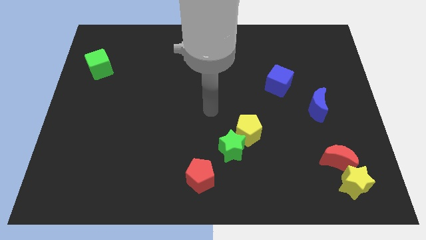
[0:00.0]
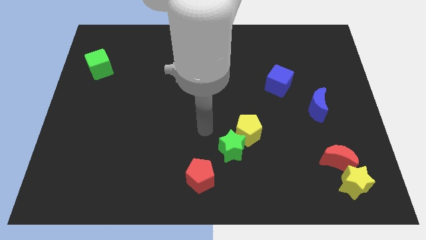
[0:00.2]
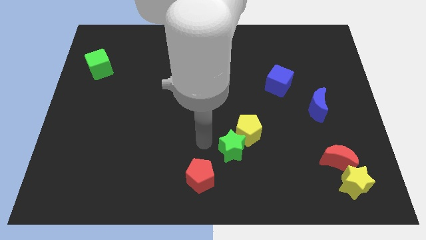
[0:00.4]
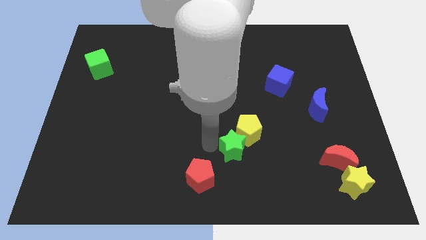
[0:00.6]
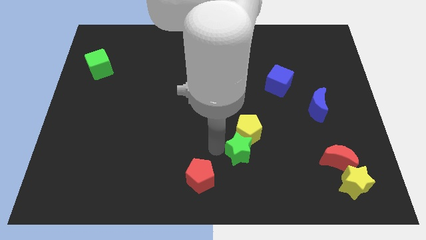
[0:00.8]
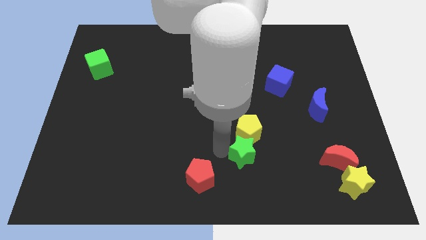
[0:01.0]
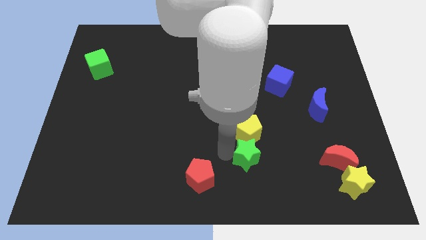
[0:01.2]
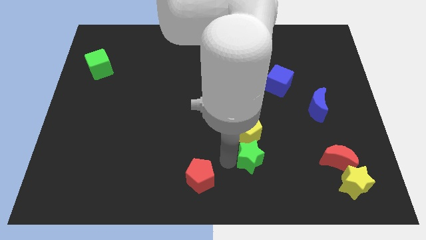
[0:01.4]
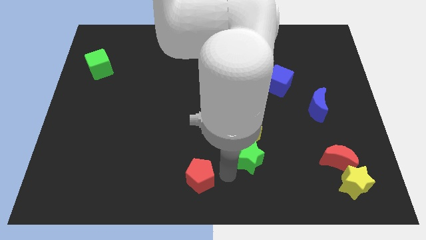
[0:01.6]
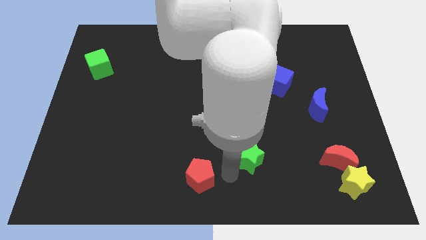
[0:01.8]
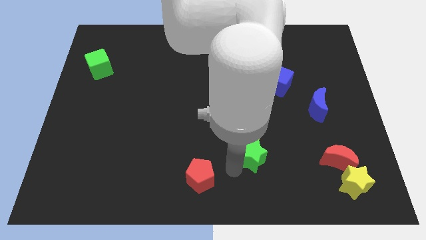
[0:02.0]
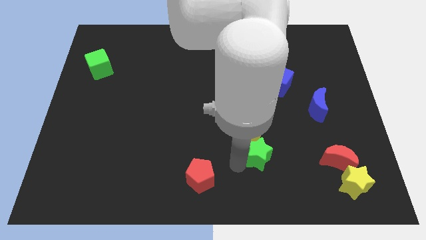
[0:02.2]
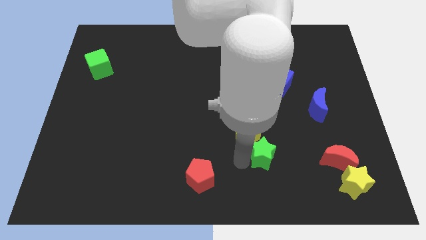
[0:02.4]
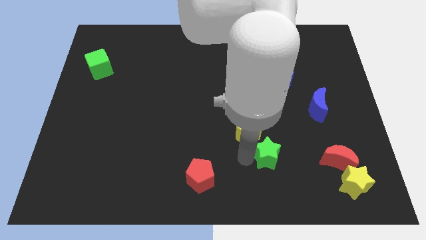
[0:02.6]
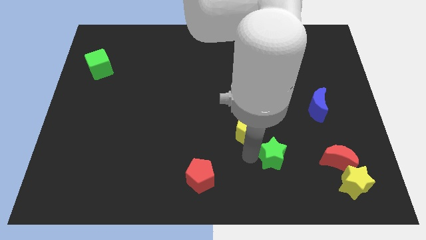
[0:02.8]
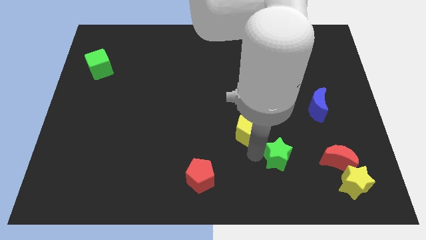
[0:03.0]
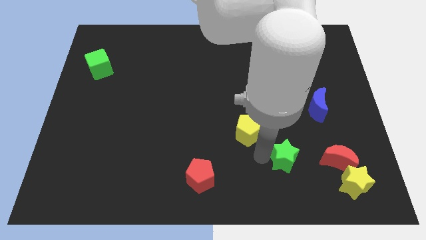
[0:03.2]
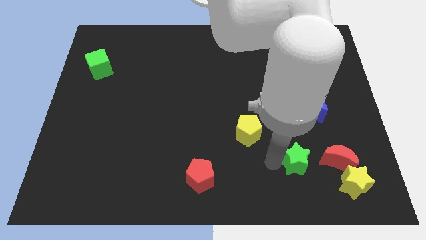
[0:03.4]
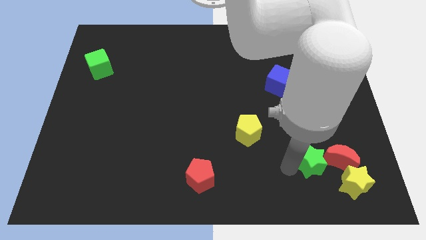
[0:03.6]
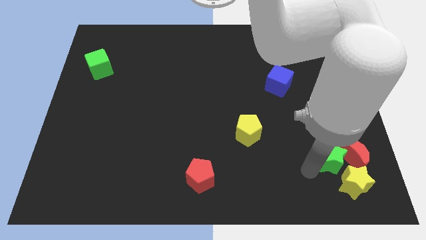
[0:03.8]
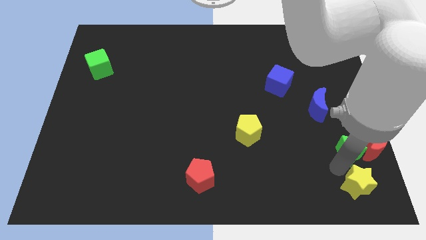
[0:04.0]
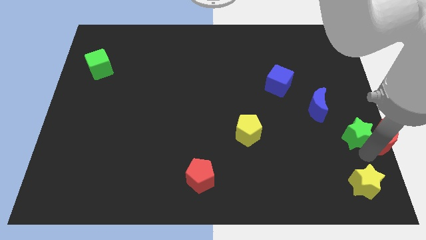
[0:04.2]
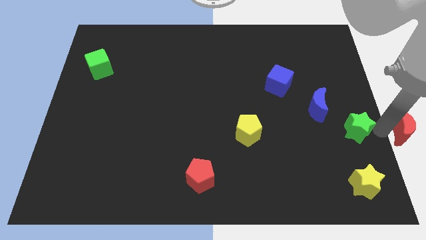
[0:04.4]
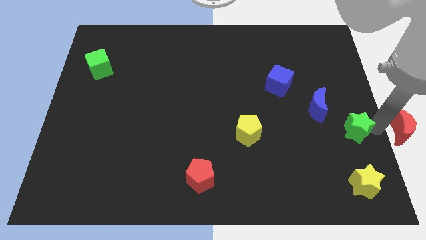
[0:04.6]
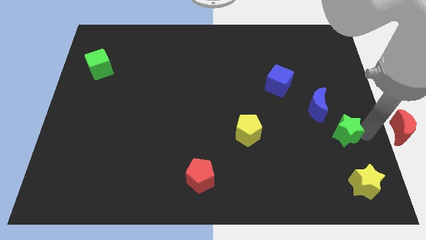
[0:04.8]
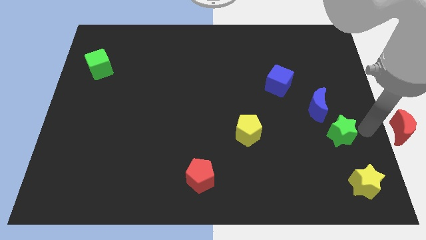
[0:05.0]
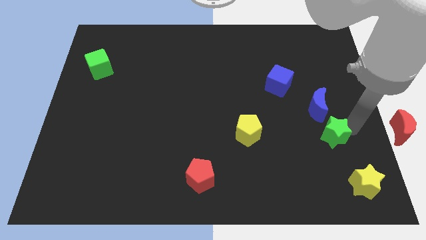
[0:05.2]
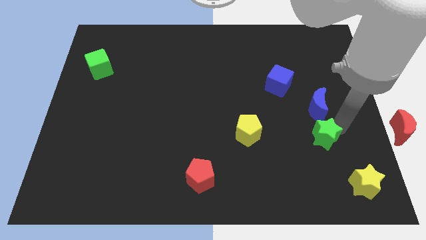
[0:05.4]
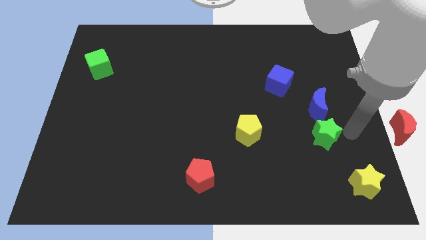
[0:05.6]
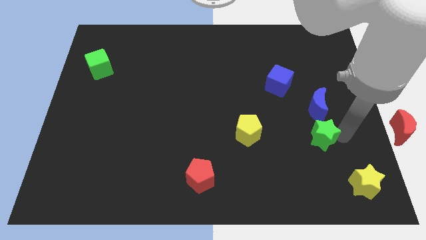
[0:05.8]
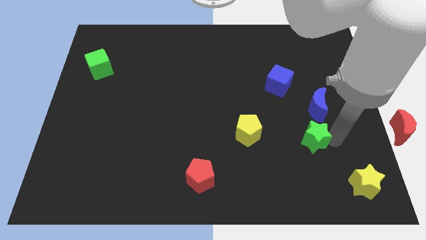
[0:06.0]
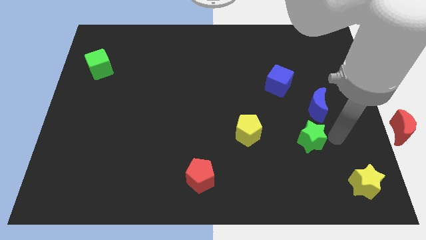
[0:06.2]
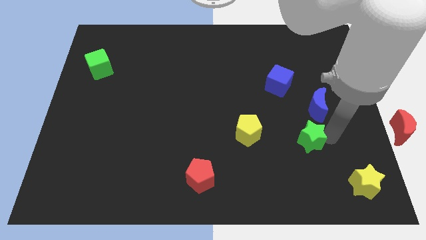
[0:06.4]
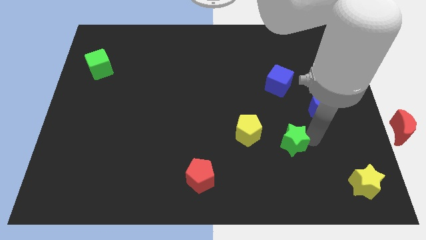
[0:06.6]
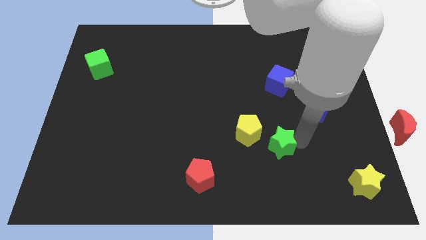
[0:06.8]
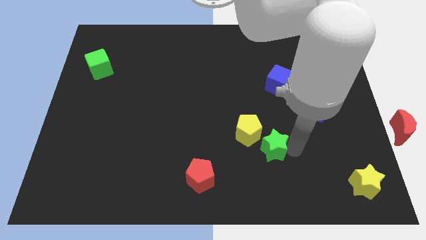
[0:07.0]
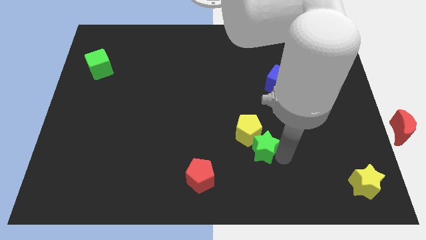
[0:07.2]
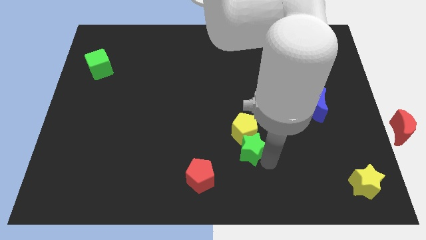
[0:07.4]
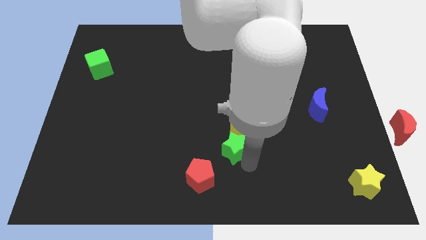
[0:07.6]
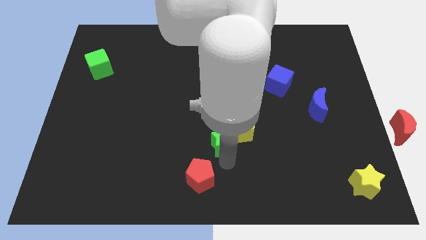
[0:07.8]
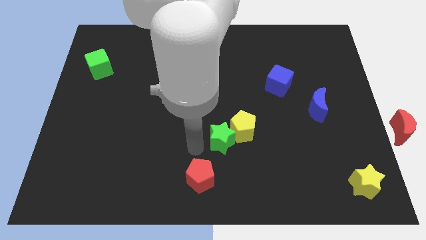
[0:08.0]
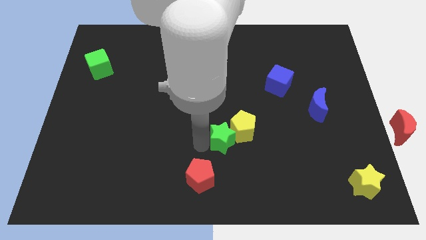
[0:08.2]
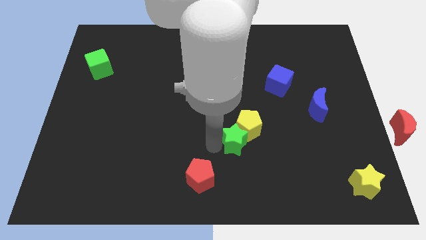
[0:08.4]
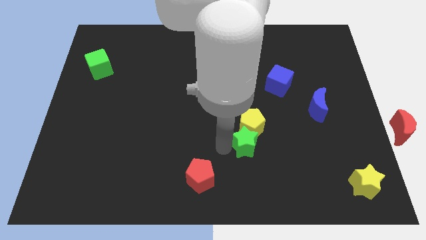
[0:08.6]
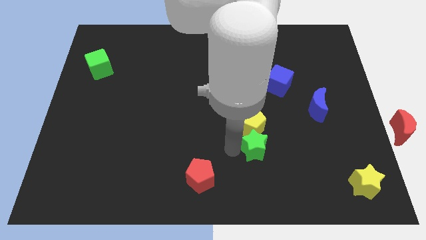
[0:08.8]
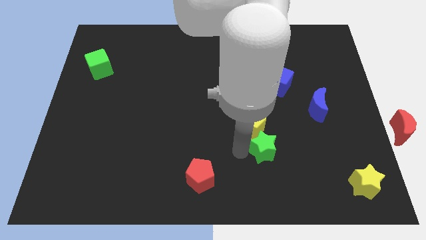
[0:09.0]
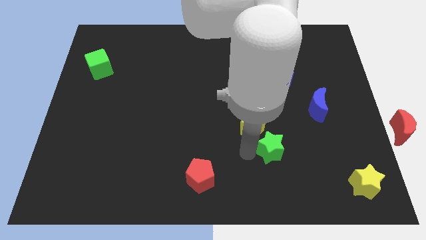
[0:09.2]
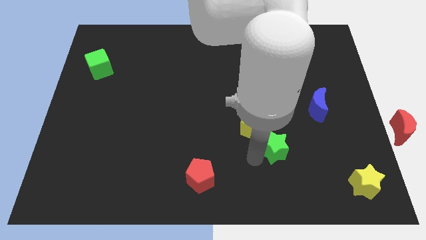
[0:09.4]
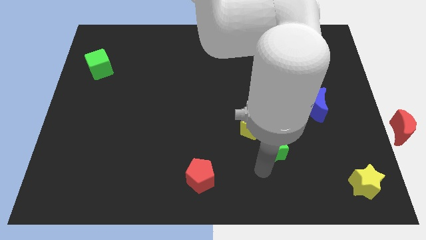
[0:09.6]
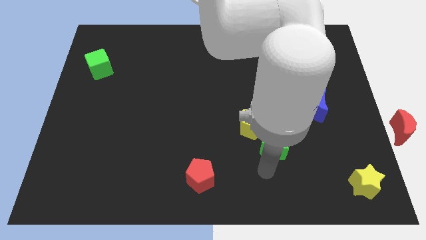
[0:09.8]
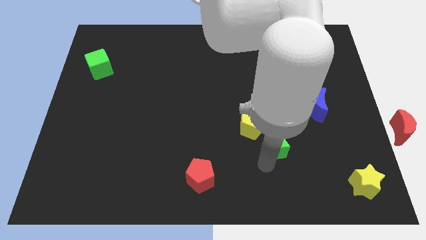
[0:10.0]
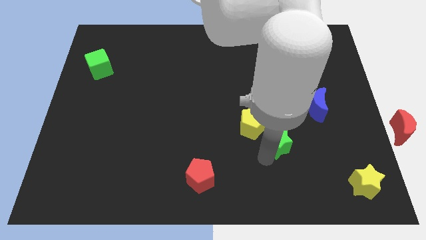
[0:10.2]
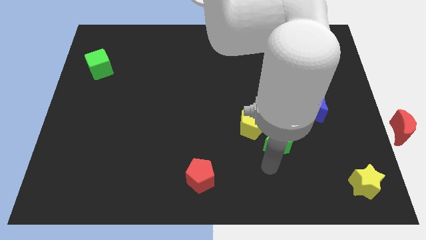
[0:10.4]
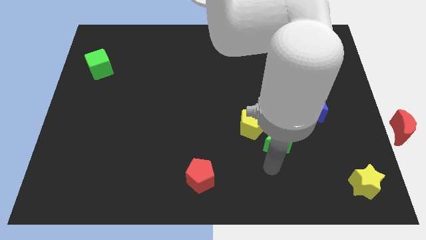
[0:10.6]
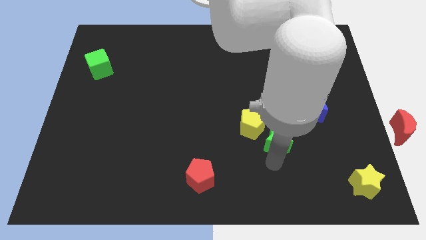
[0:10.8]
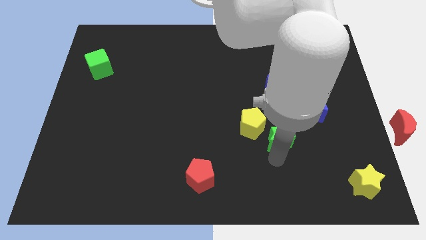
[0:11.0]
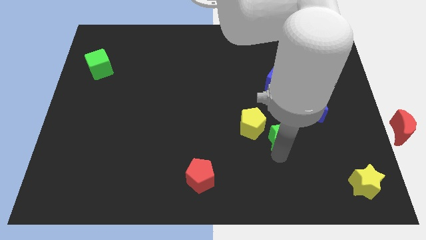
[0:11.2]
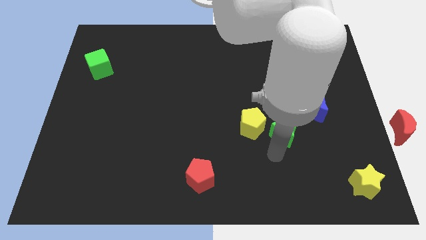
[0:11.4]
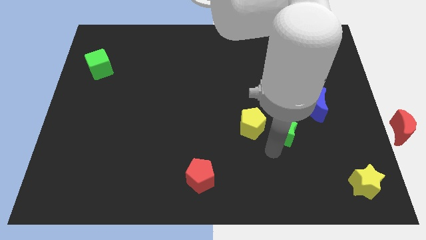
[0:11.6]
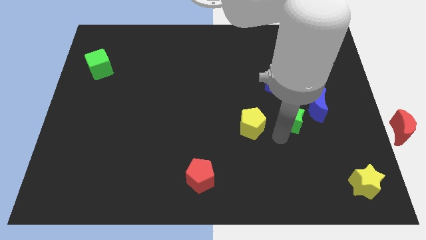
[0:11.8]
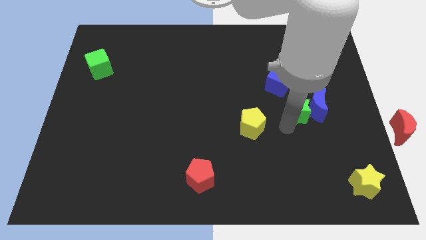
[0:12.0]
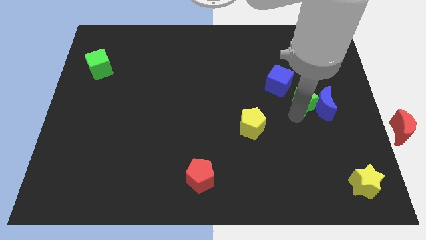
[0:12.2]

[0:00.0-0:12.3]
slide the green star upwards and then right

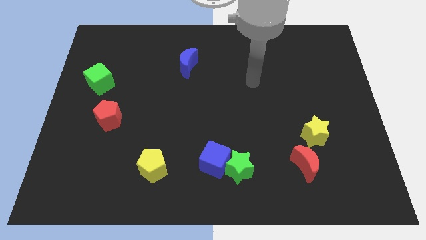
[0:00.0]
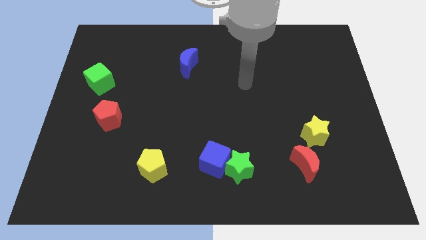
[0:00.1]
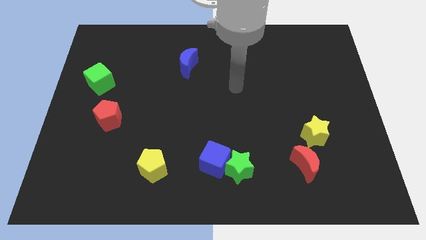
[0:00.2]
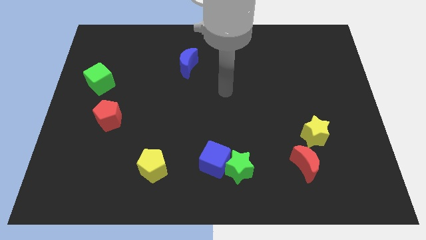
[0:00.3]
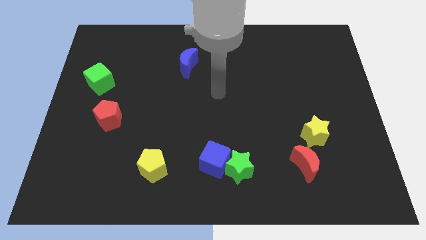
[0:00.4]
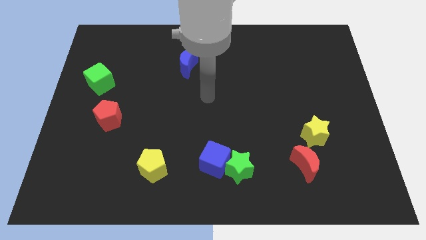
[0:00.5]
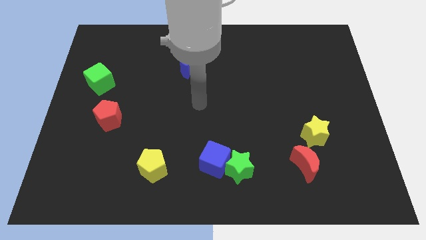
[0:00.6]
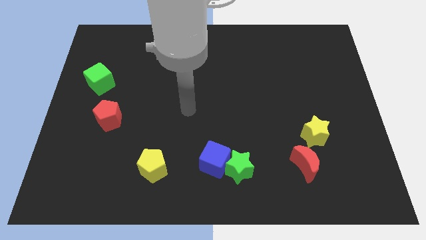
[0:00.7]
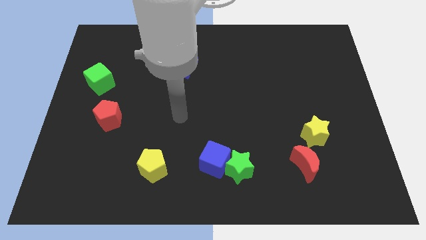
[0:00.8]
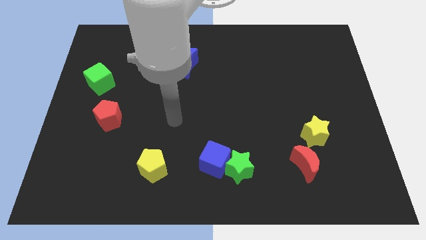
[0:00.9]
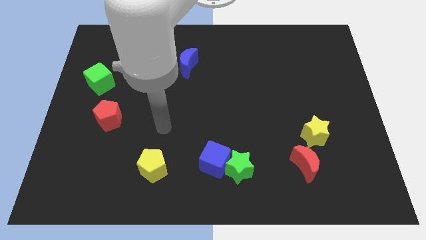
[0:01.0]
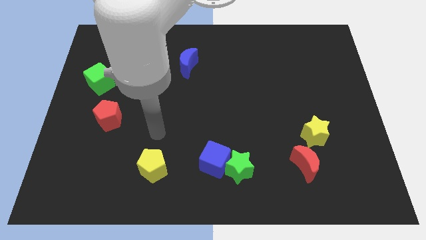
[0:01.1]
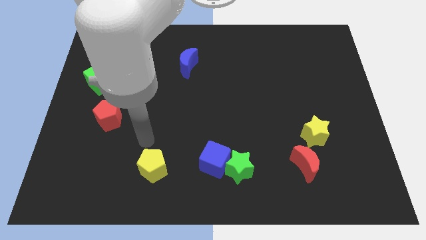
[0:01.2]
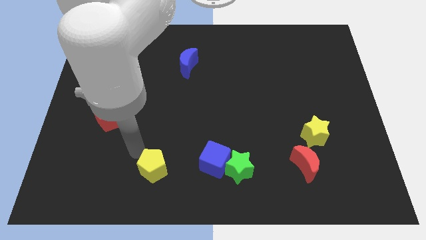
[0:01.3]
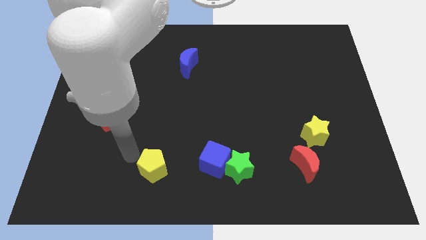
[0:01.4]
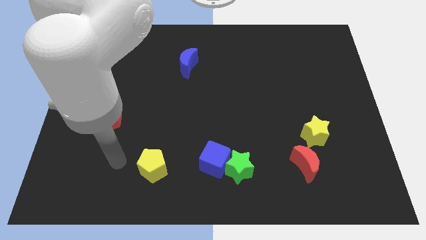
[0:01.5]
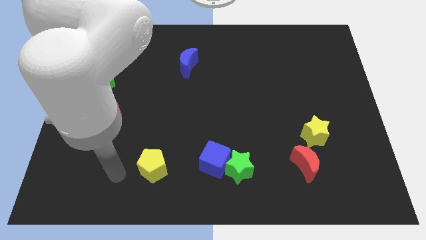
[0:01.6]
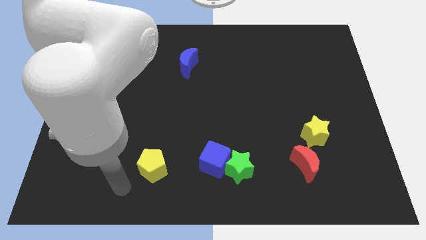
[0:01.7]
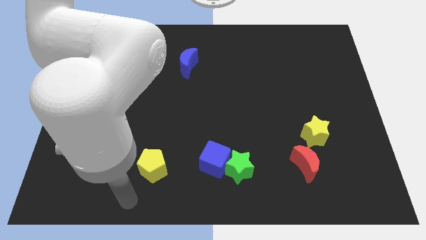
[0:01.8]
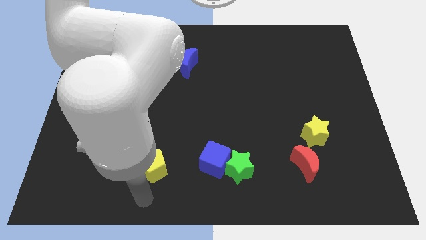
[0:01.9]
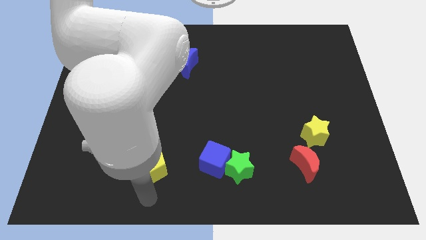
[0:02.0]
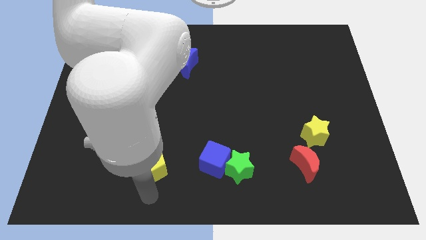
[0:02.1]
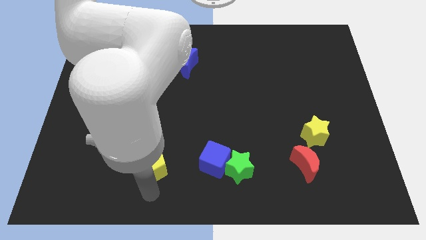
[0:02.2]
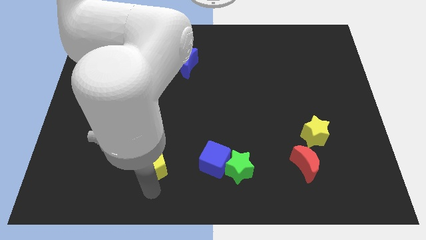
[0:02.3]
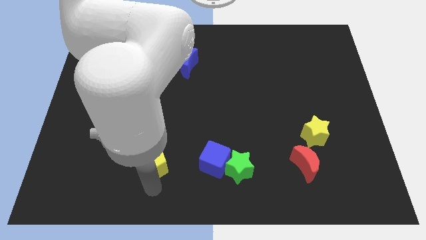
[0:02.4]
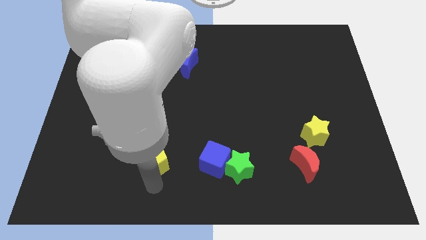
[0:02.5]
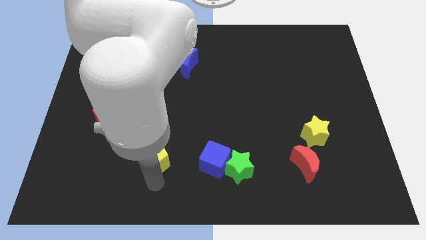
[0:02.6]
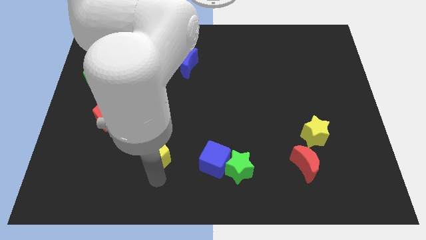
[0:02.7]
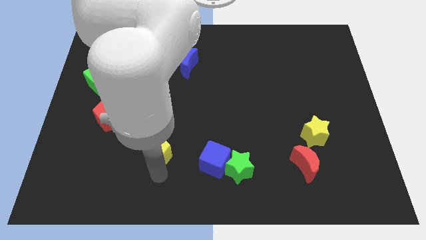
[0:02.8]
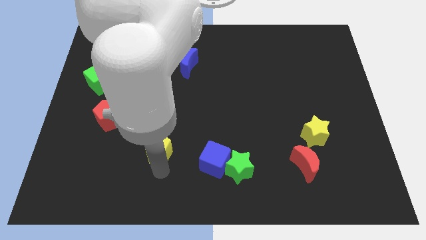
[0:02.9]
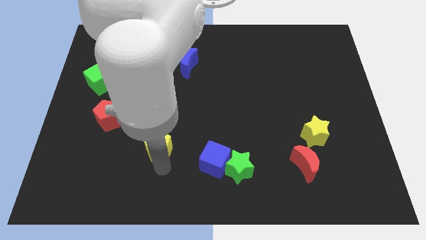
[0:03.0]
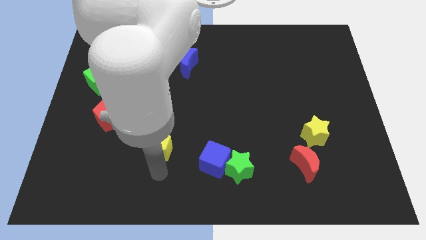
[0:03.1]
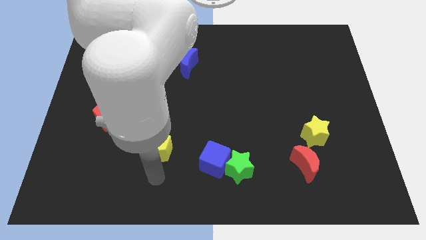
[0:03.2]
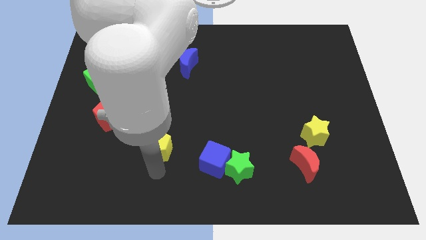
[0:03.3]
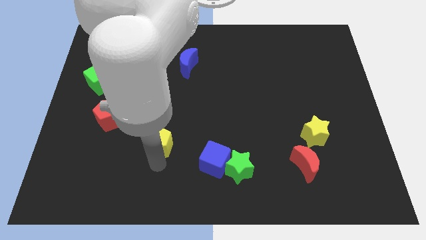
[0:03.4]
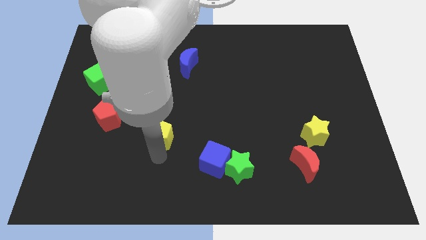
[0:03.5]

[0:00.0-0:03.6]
slightly move the yellow pentagon upwards
